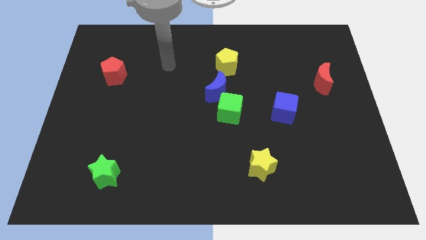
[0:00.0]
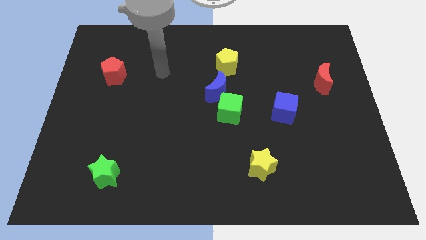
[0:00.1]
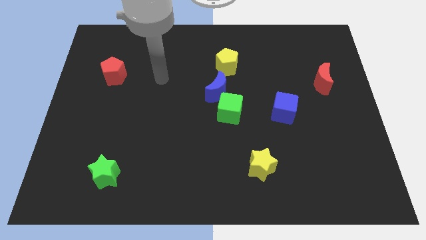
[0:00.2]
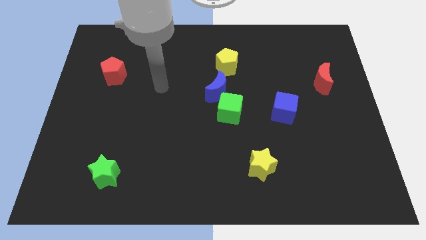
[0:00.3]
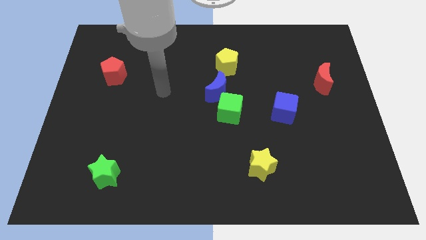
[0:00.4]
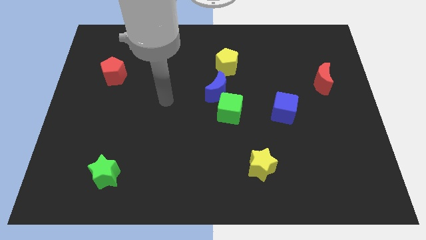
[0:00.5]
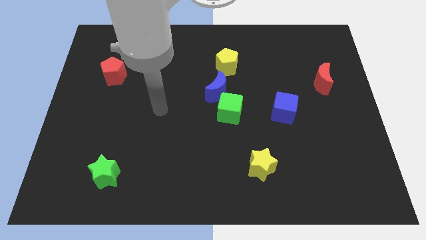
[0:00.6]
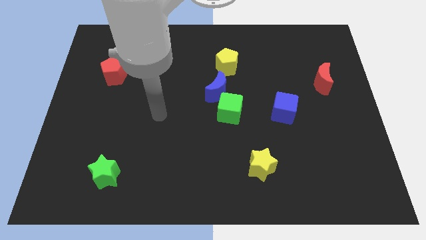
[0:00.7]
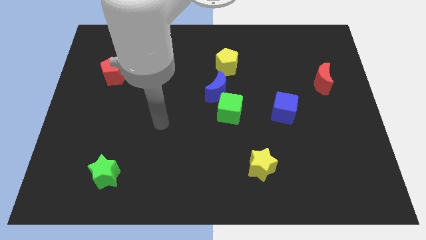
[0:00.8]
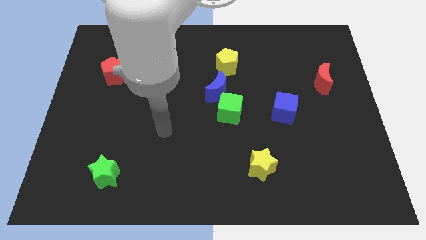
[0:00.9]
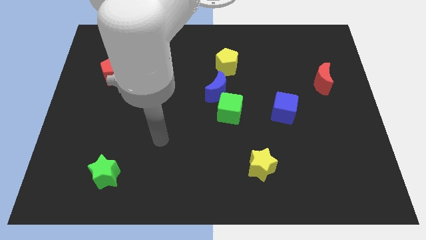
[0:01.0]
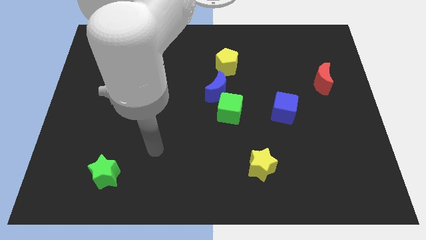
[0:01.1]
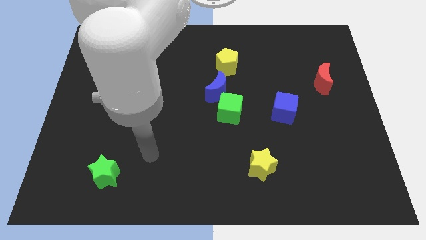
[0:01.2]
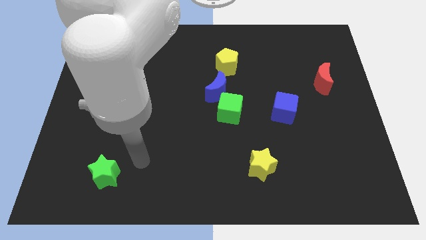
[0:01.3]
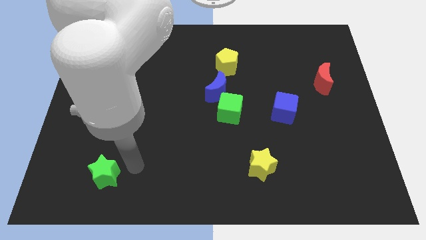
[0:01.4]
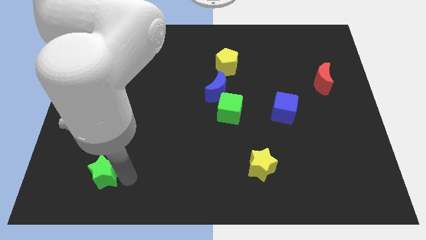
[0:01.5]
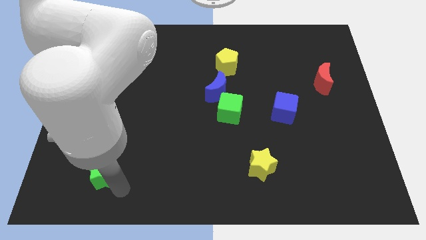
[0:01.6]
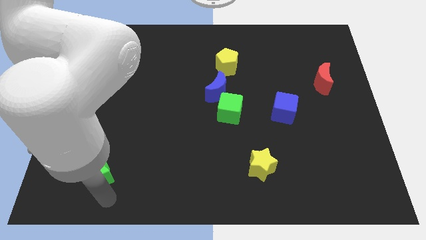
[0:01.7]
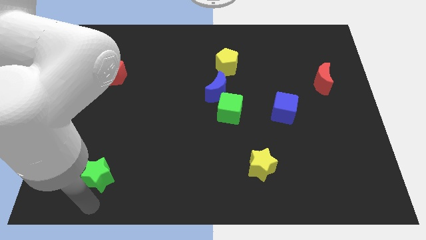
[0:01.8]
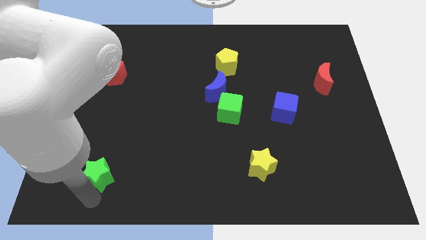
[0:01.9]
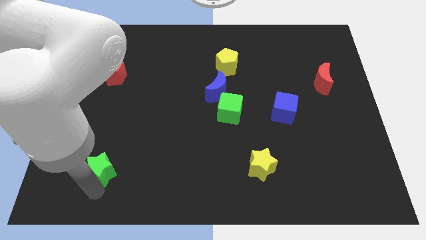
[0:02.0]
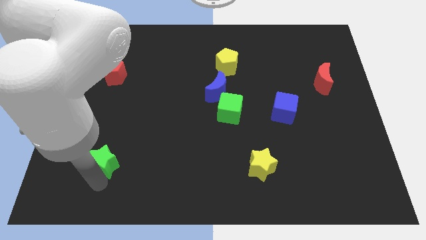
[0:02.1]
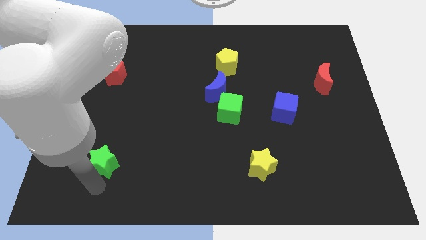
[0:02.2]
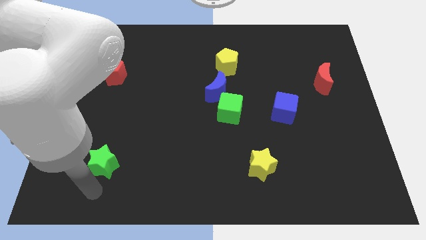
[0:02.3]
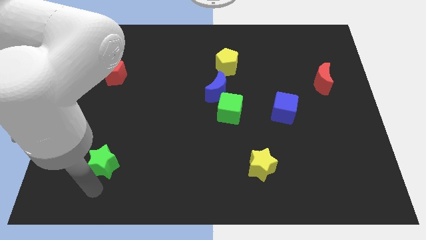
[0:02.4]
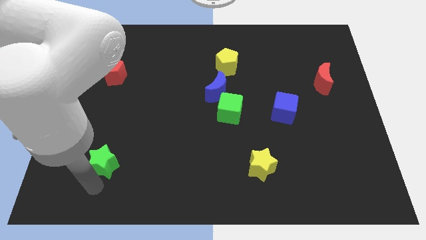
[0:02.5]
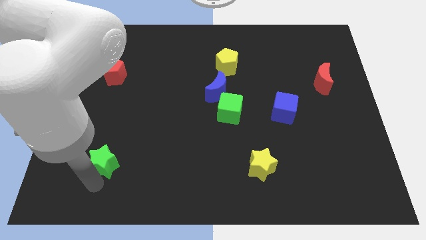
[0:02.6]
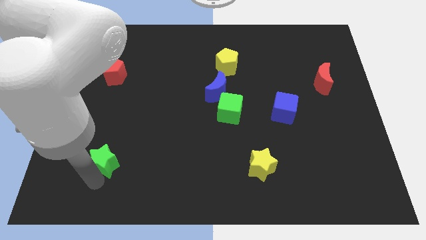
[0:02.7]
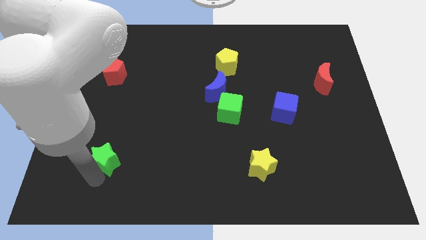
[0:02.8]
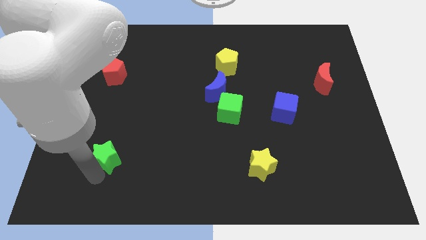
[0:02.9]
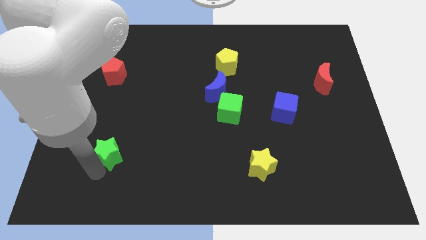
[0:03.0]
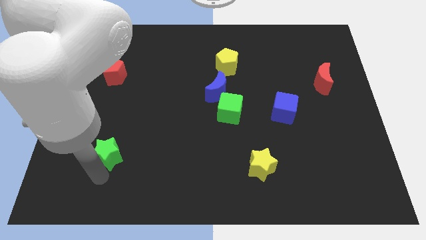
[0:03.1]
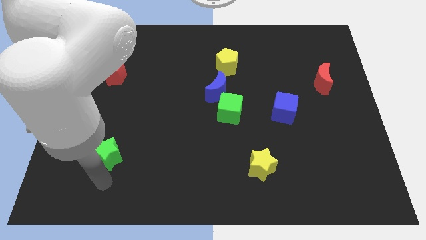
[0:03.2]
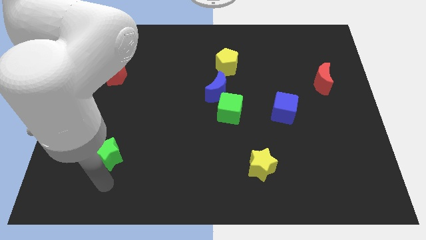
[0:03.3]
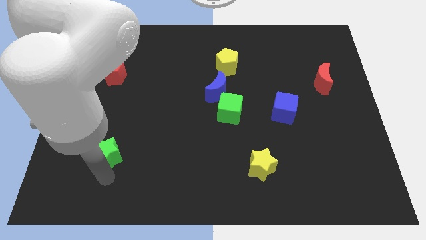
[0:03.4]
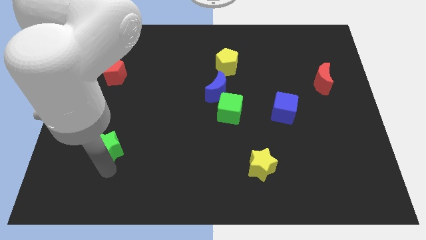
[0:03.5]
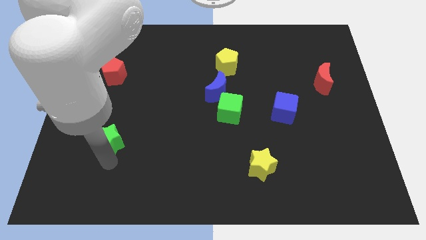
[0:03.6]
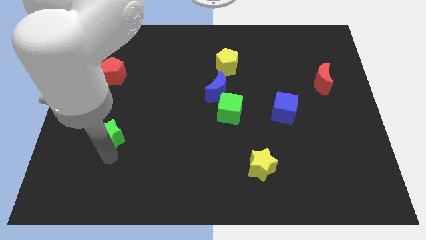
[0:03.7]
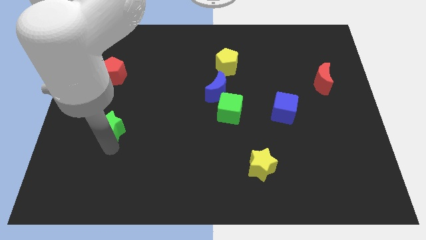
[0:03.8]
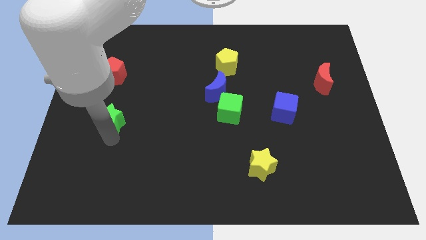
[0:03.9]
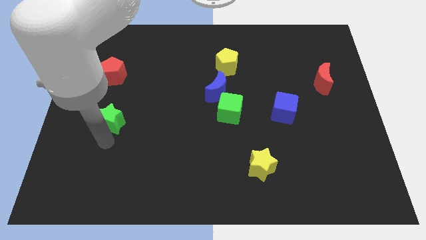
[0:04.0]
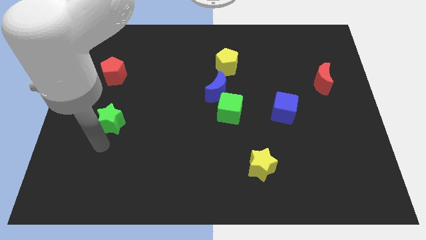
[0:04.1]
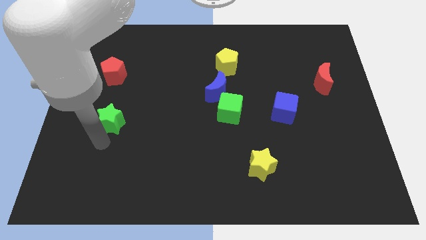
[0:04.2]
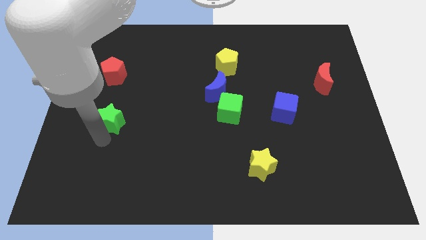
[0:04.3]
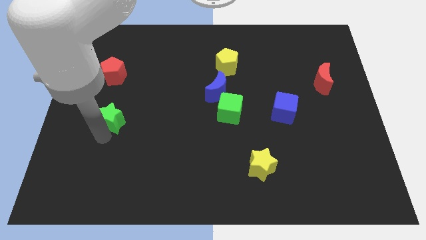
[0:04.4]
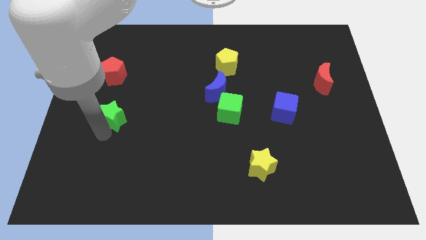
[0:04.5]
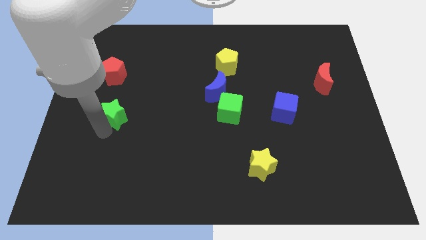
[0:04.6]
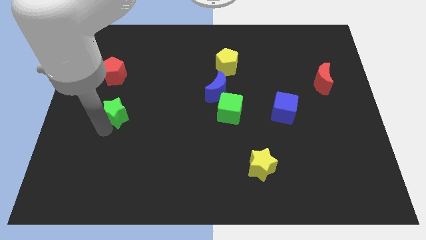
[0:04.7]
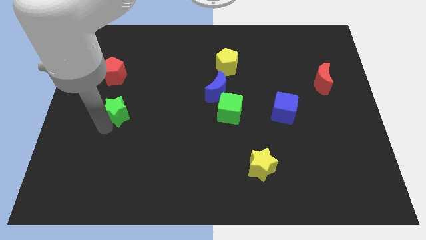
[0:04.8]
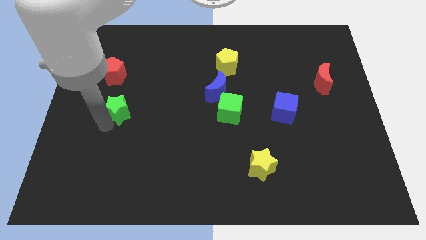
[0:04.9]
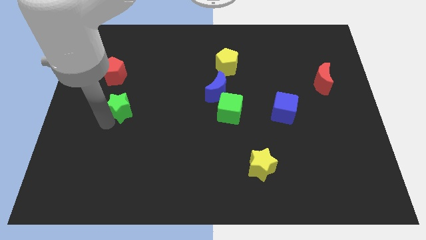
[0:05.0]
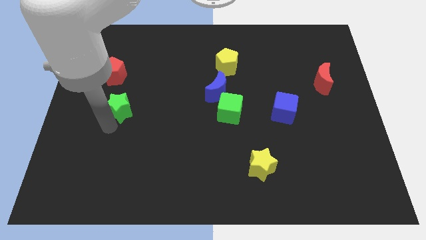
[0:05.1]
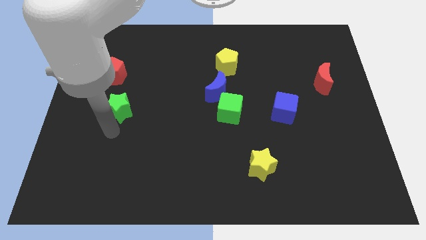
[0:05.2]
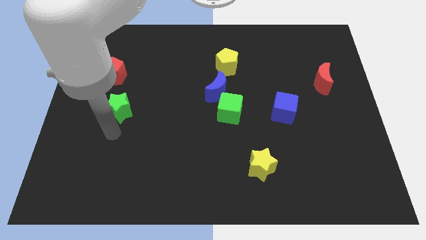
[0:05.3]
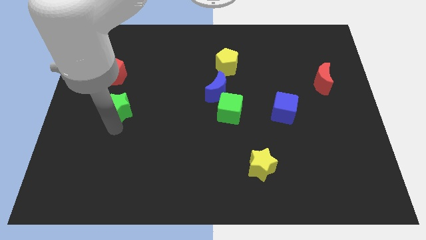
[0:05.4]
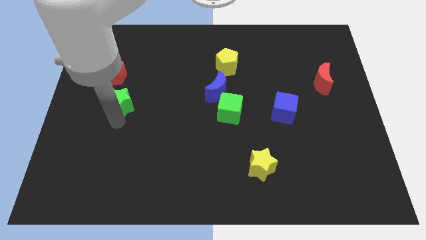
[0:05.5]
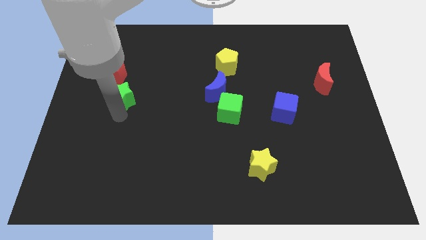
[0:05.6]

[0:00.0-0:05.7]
push the green star up

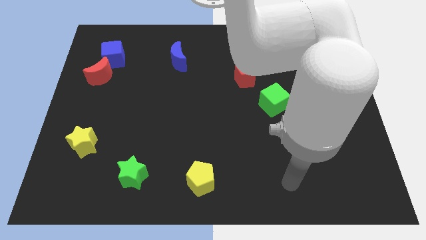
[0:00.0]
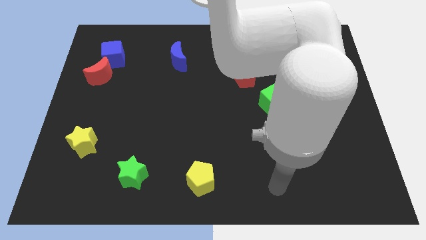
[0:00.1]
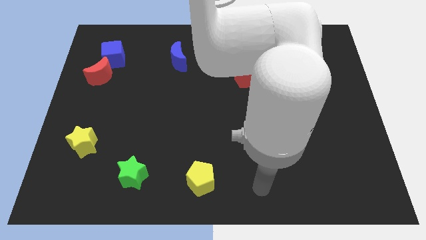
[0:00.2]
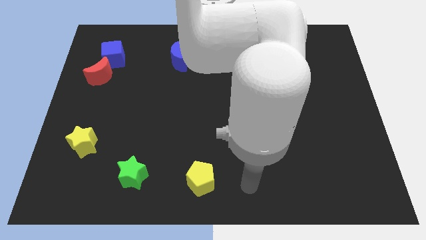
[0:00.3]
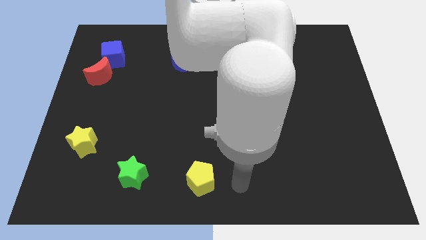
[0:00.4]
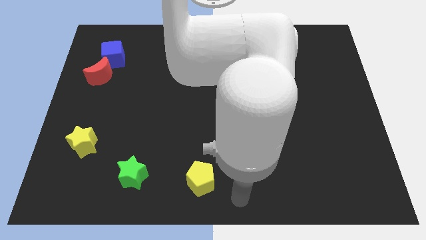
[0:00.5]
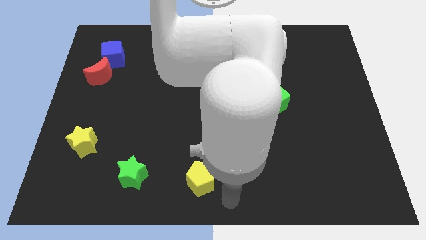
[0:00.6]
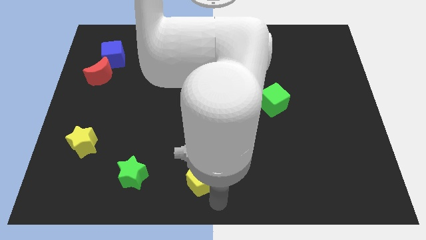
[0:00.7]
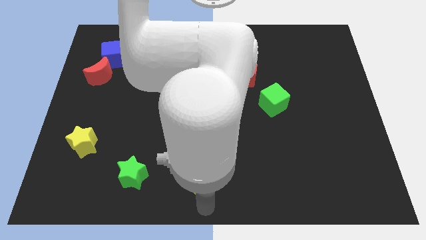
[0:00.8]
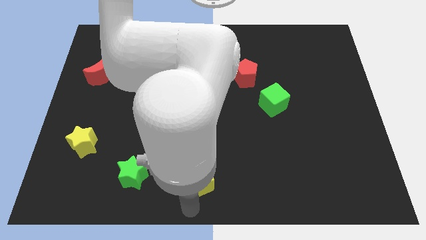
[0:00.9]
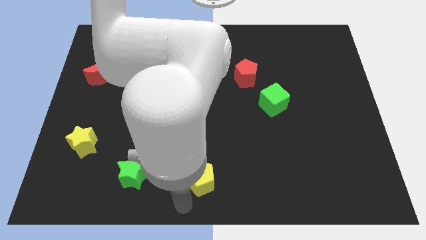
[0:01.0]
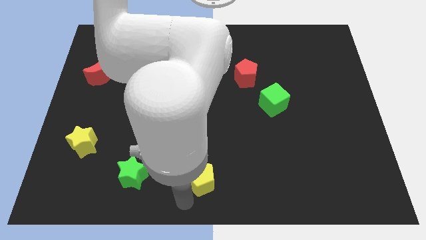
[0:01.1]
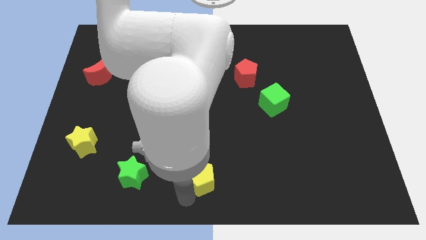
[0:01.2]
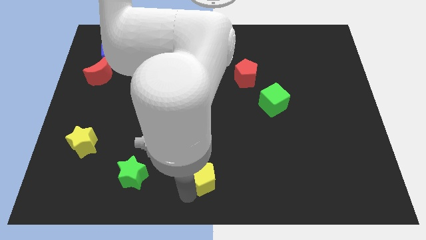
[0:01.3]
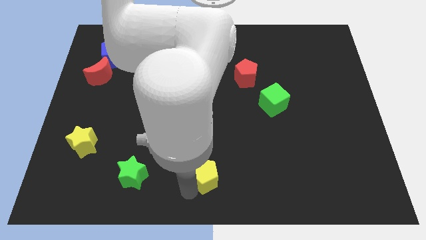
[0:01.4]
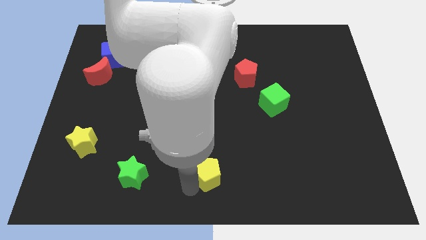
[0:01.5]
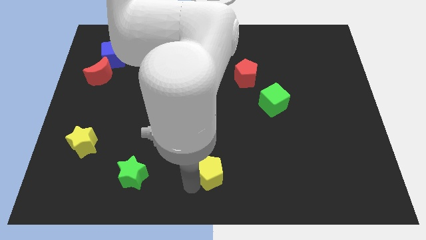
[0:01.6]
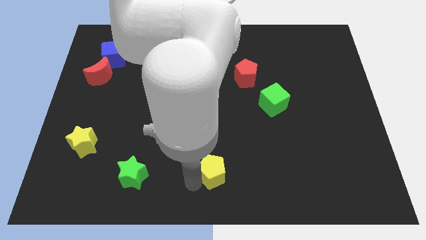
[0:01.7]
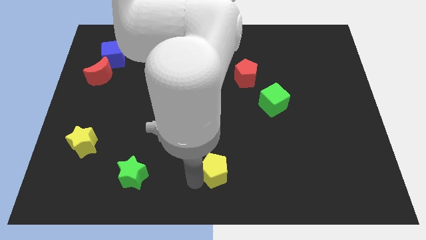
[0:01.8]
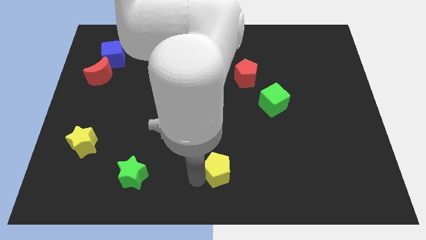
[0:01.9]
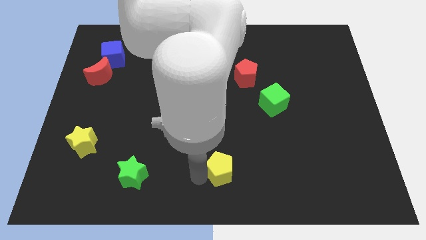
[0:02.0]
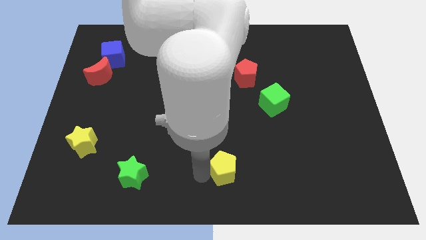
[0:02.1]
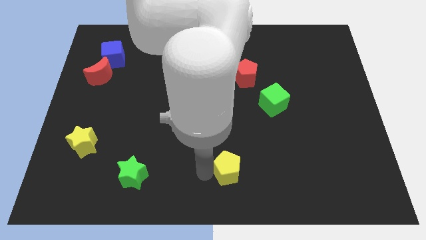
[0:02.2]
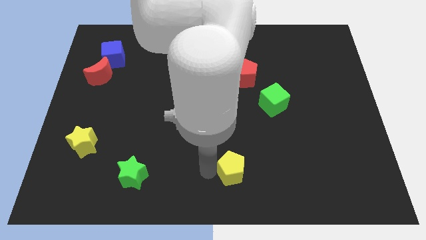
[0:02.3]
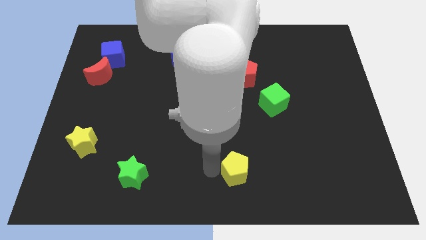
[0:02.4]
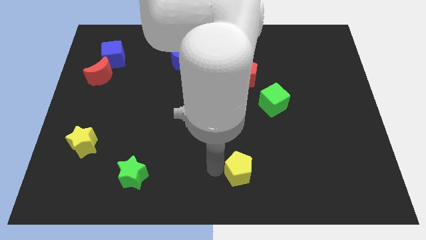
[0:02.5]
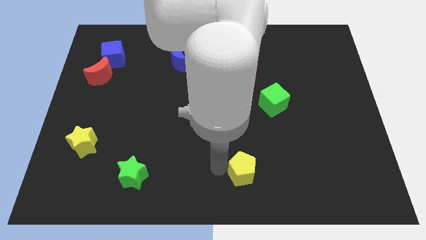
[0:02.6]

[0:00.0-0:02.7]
push the yellow pentagon upwards and to the right diagonally a little bit
